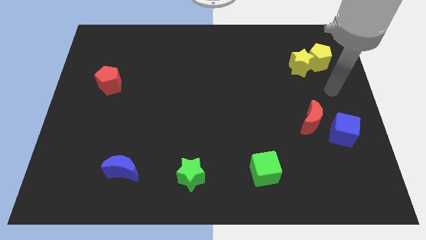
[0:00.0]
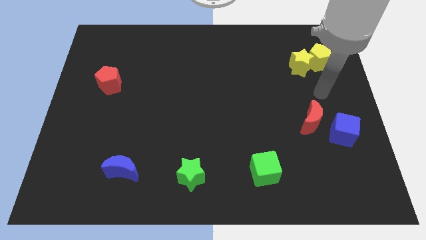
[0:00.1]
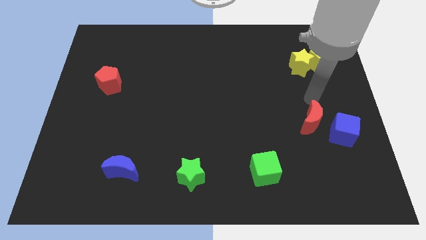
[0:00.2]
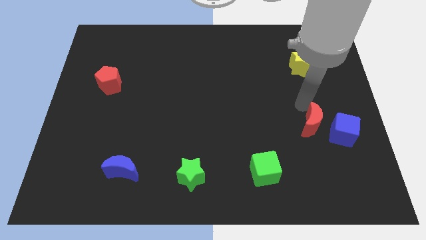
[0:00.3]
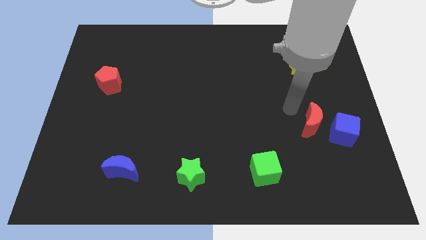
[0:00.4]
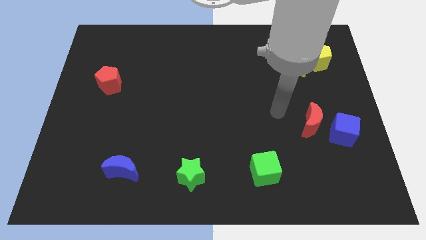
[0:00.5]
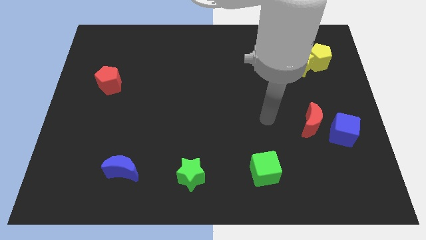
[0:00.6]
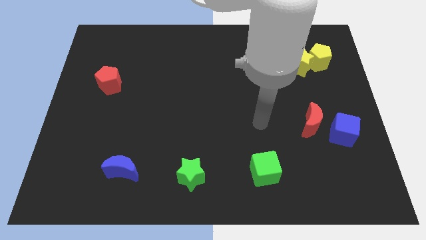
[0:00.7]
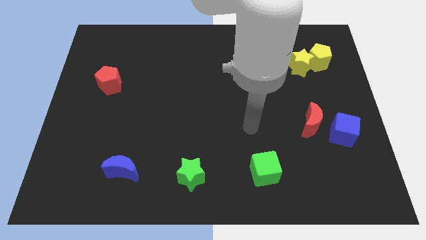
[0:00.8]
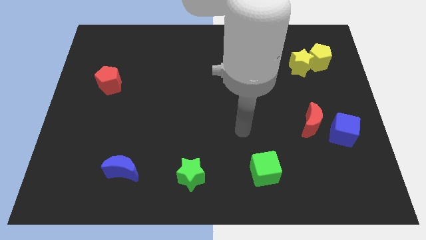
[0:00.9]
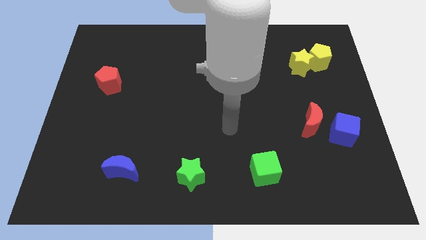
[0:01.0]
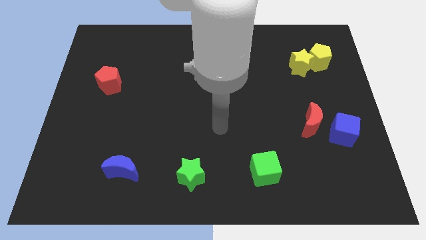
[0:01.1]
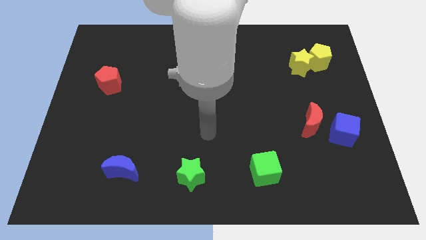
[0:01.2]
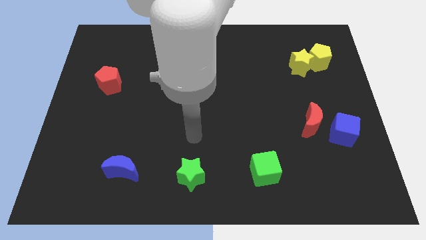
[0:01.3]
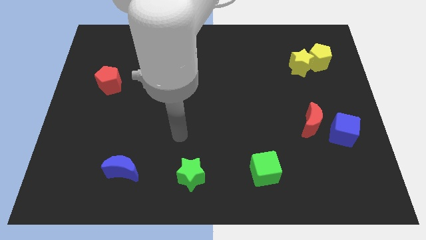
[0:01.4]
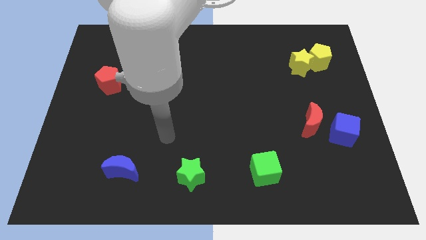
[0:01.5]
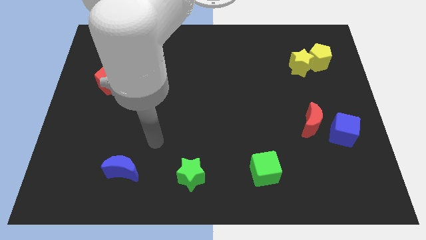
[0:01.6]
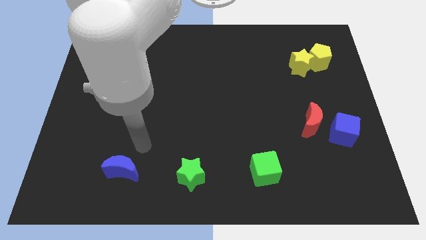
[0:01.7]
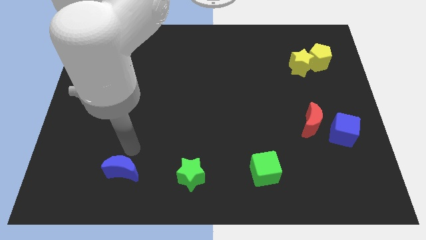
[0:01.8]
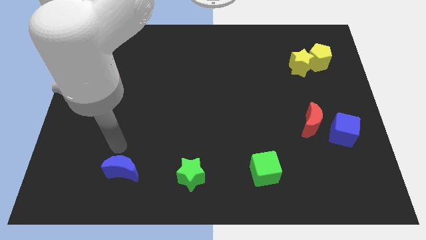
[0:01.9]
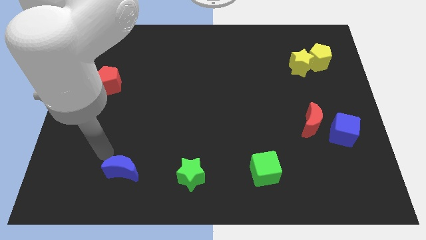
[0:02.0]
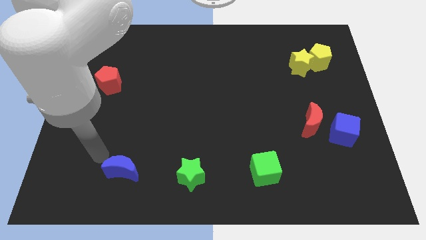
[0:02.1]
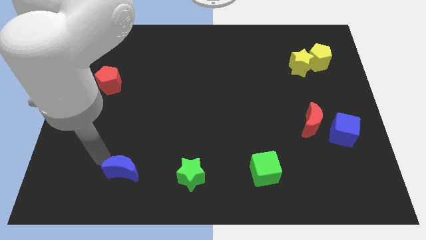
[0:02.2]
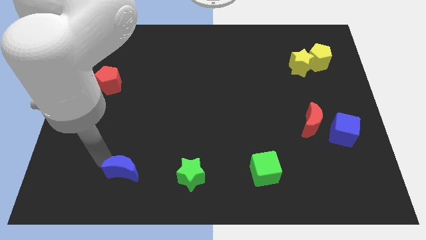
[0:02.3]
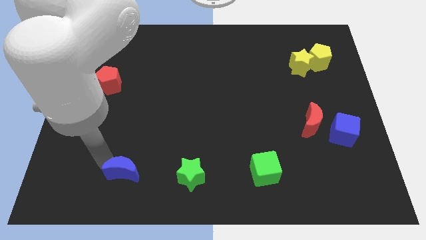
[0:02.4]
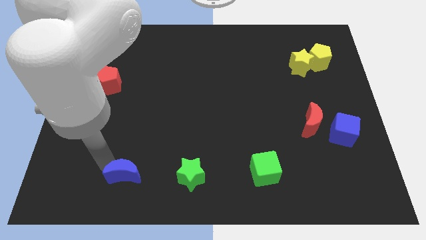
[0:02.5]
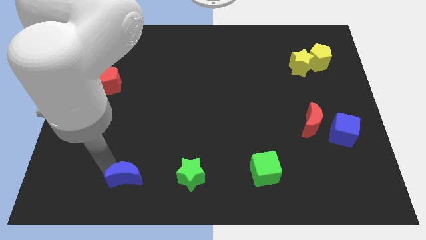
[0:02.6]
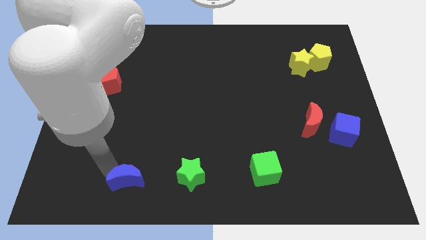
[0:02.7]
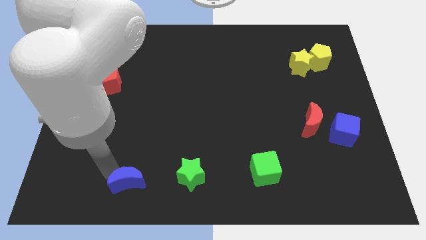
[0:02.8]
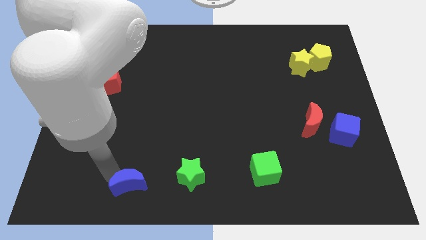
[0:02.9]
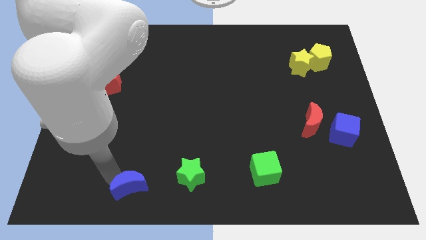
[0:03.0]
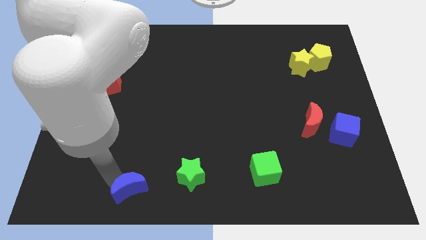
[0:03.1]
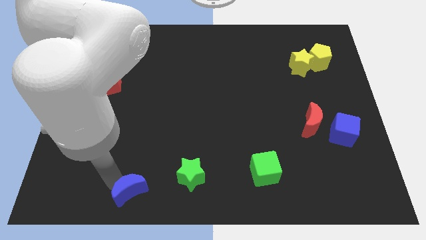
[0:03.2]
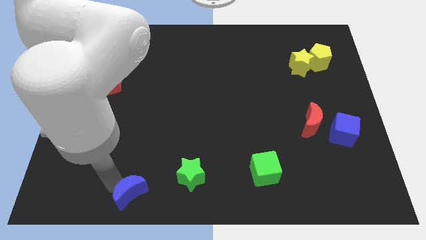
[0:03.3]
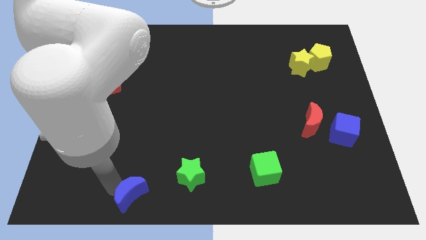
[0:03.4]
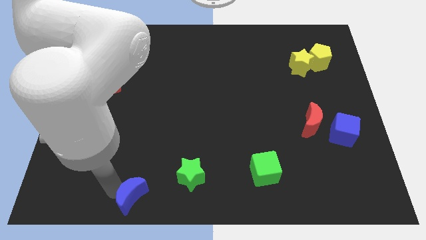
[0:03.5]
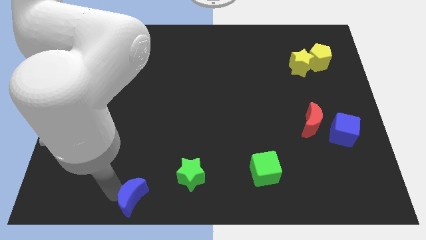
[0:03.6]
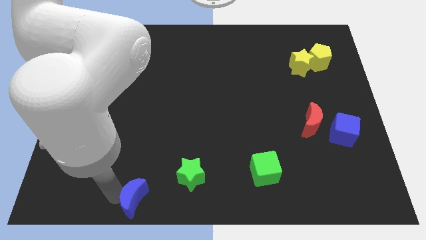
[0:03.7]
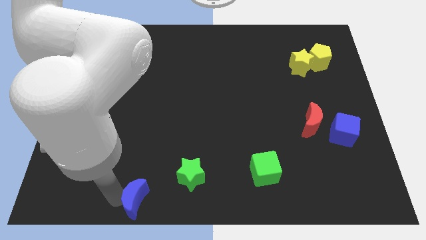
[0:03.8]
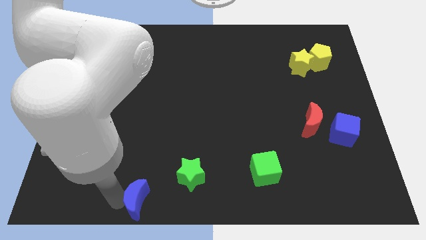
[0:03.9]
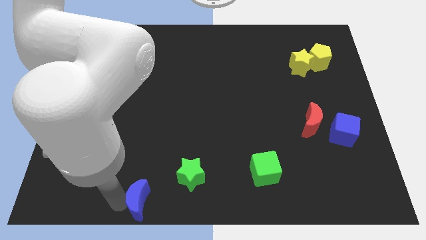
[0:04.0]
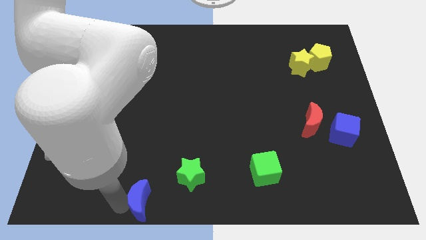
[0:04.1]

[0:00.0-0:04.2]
put the blue moon to the bottom

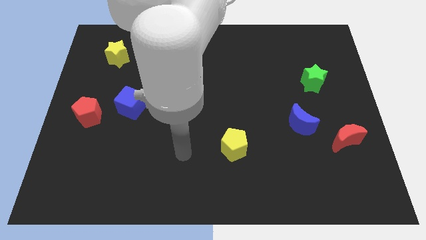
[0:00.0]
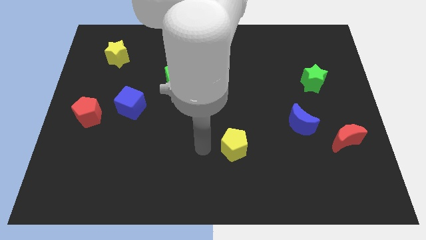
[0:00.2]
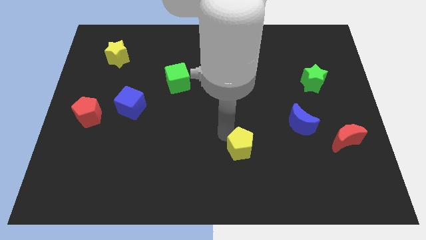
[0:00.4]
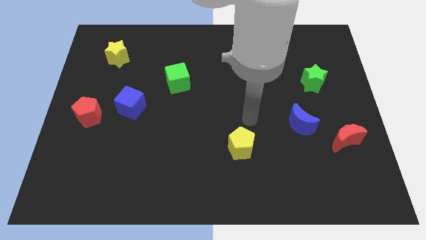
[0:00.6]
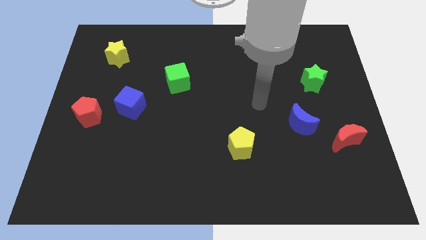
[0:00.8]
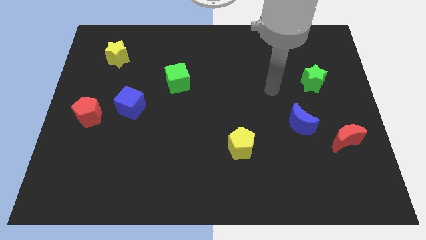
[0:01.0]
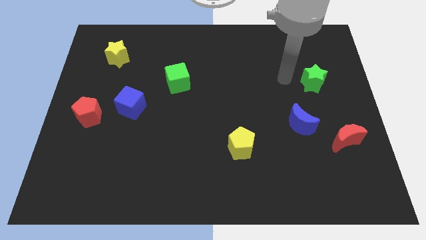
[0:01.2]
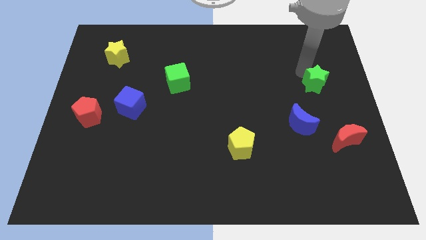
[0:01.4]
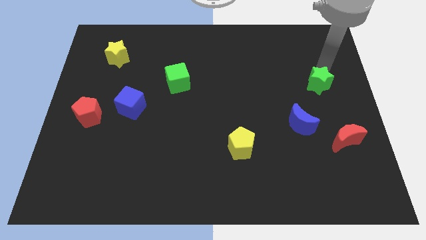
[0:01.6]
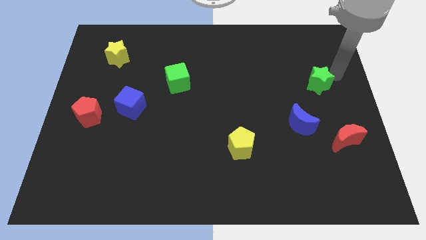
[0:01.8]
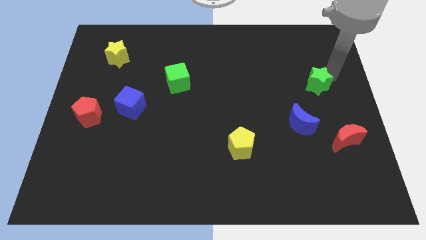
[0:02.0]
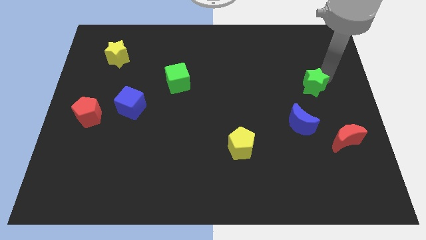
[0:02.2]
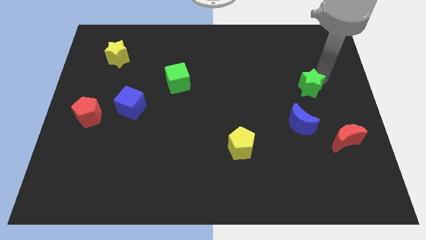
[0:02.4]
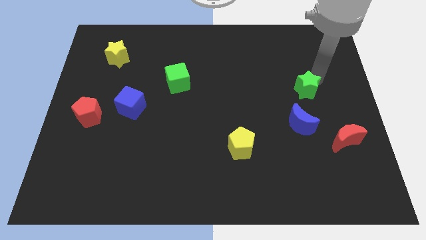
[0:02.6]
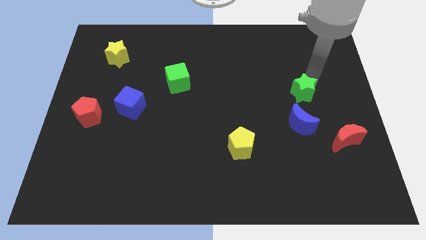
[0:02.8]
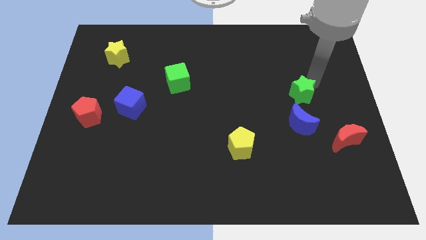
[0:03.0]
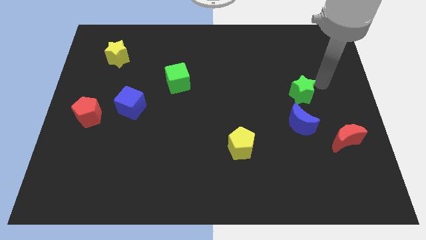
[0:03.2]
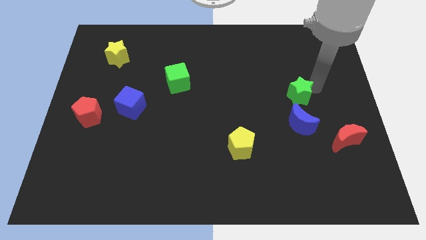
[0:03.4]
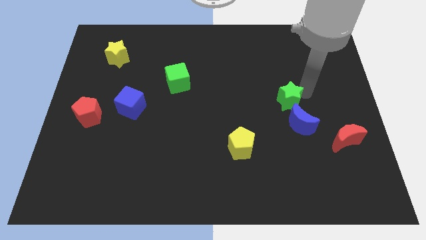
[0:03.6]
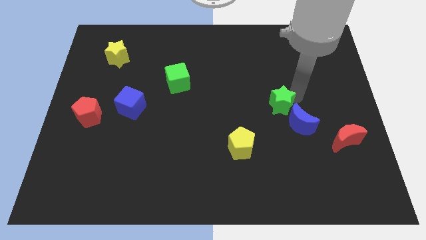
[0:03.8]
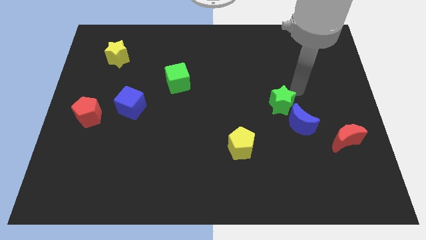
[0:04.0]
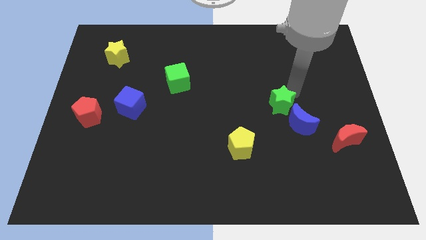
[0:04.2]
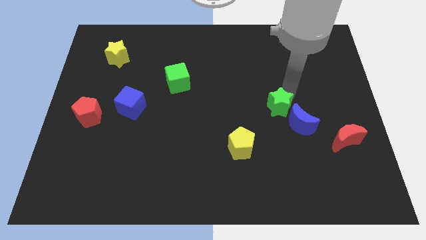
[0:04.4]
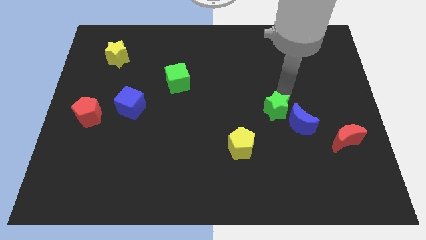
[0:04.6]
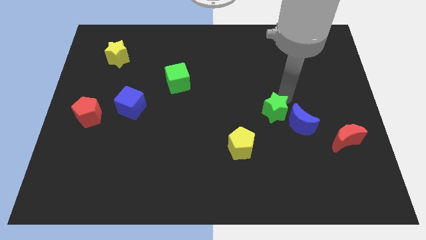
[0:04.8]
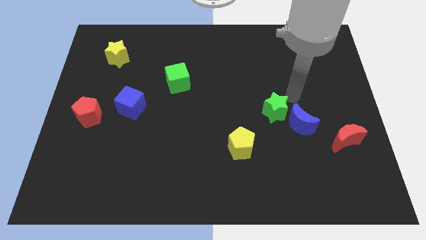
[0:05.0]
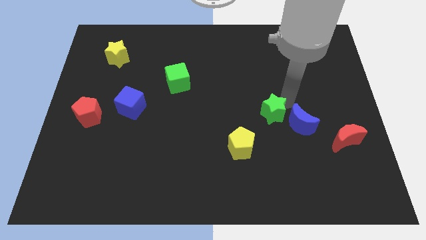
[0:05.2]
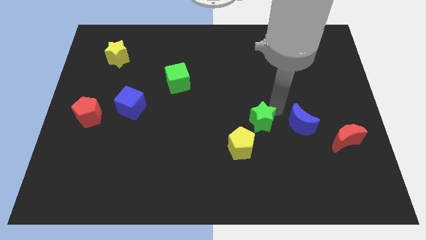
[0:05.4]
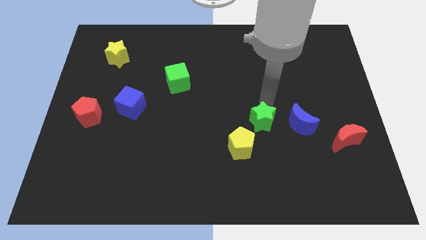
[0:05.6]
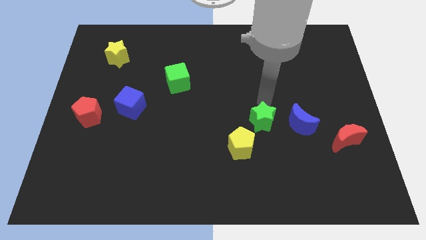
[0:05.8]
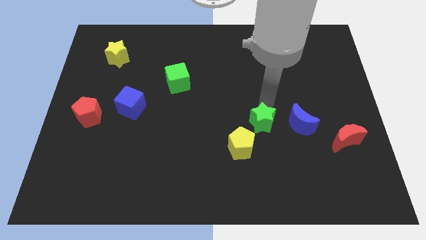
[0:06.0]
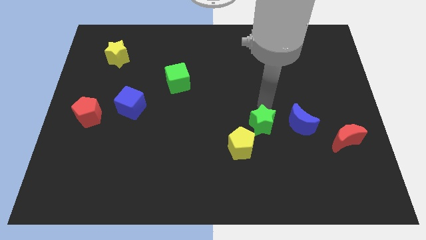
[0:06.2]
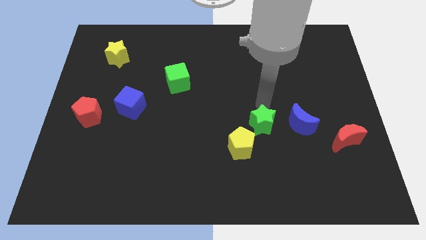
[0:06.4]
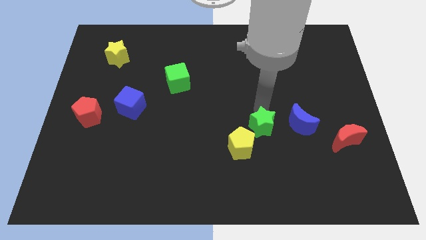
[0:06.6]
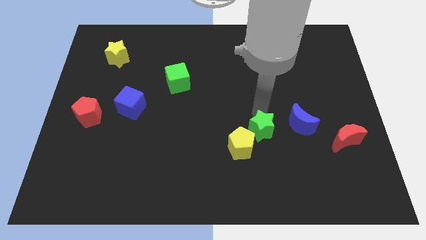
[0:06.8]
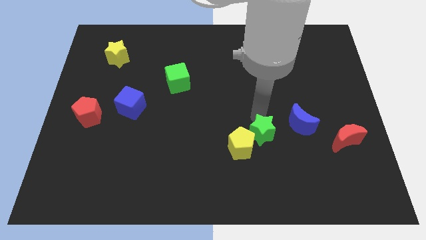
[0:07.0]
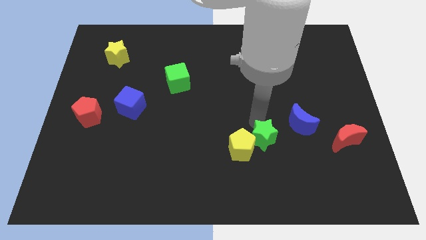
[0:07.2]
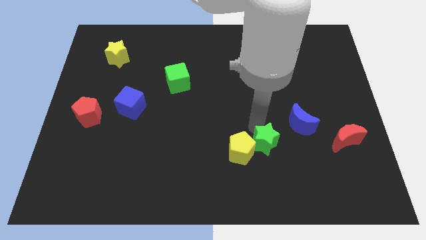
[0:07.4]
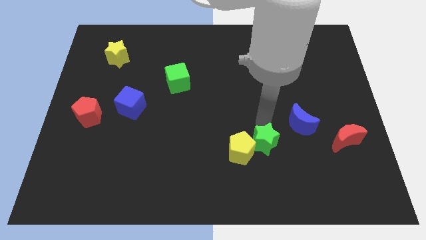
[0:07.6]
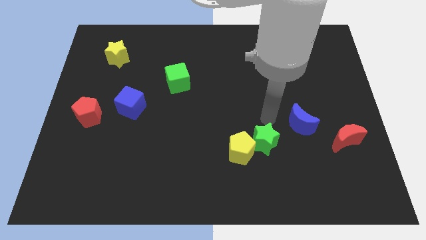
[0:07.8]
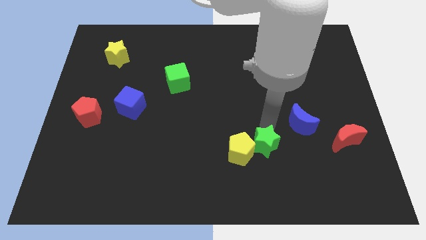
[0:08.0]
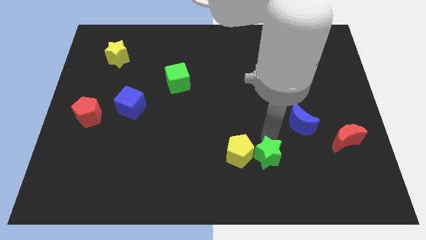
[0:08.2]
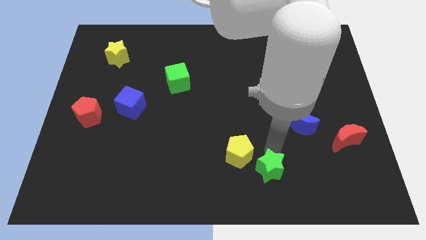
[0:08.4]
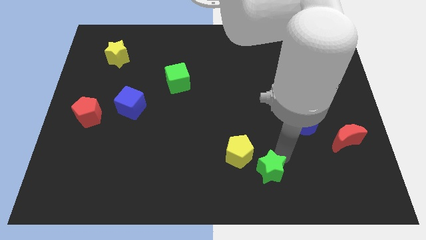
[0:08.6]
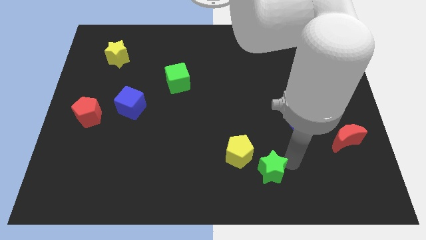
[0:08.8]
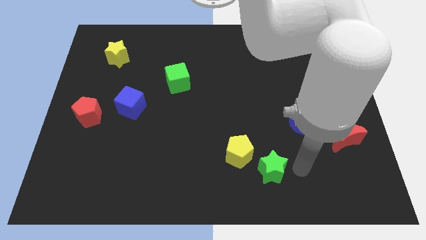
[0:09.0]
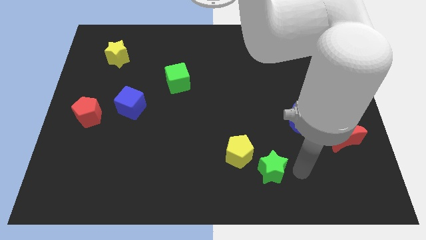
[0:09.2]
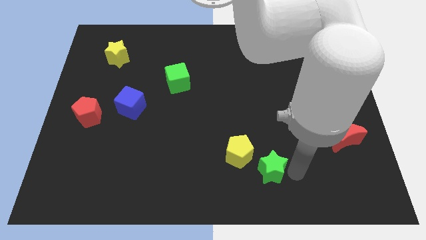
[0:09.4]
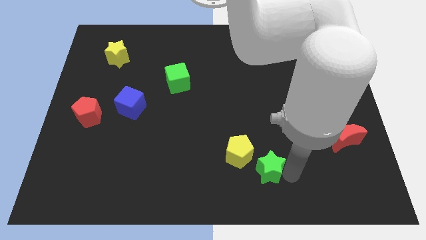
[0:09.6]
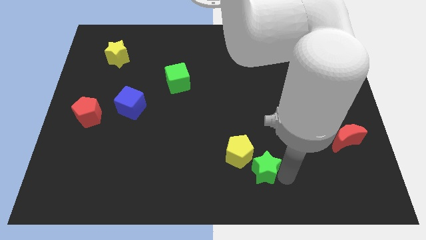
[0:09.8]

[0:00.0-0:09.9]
slide the green star to the bottom side
